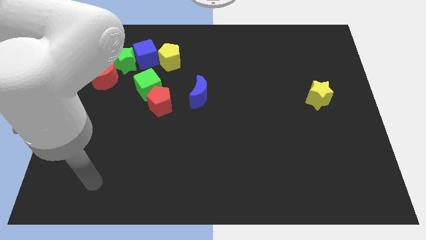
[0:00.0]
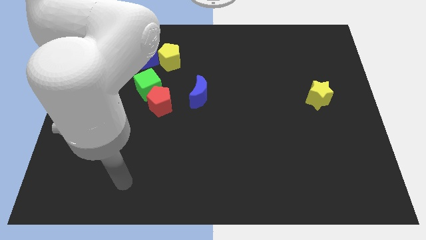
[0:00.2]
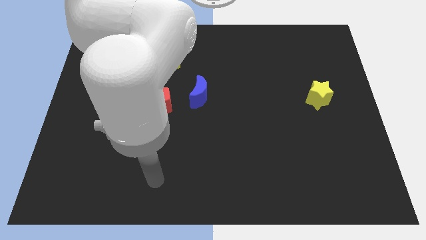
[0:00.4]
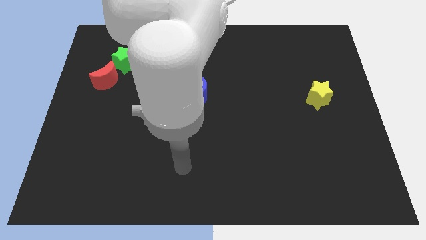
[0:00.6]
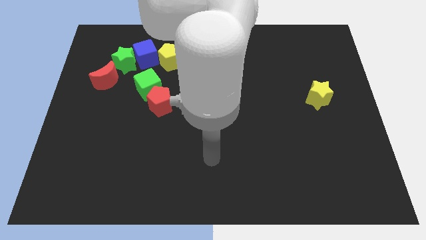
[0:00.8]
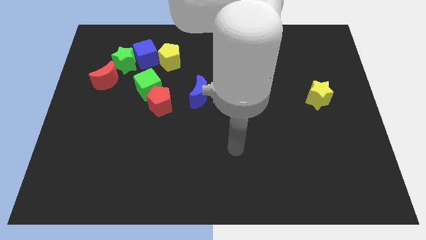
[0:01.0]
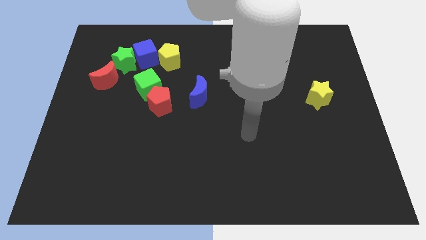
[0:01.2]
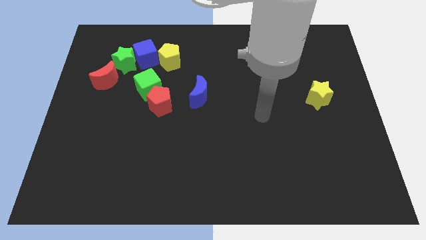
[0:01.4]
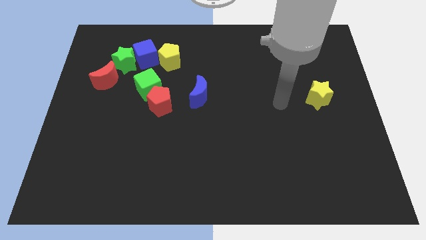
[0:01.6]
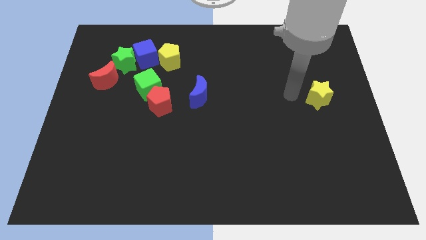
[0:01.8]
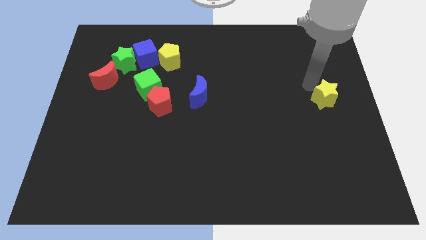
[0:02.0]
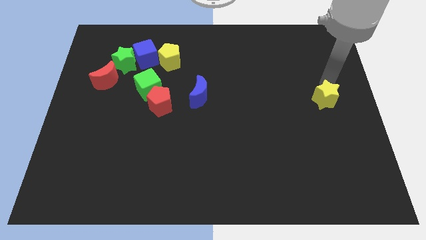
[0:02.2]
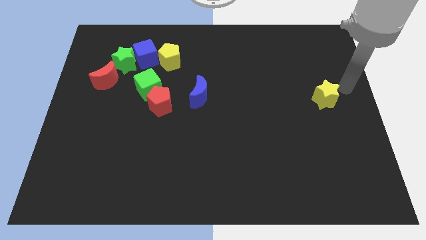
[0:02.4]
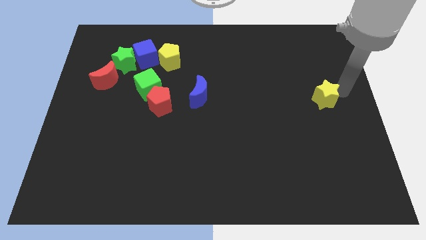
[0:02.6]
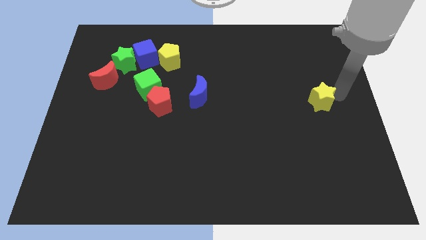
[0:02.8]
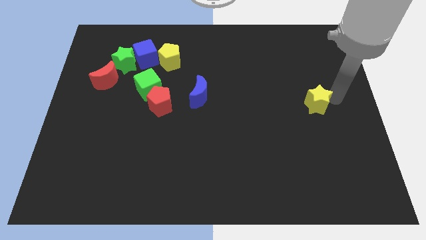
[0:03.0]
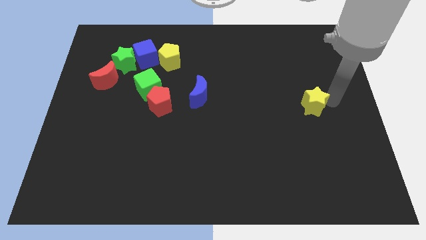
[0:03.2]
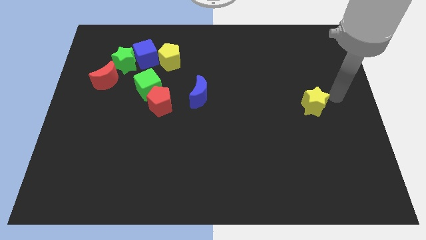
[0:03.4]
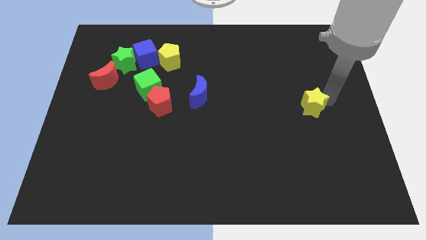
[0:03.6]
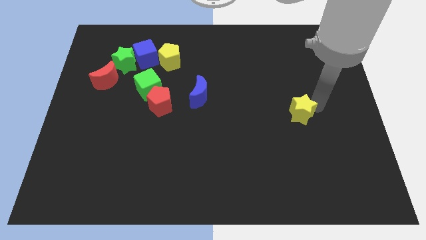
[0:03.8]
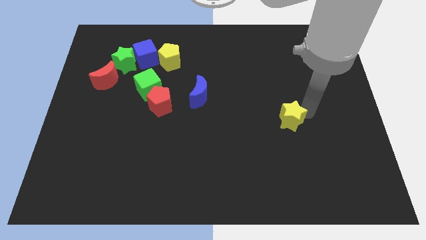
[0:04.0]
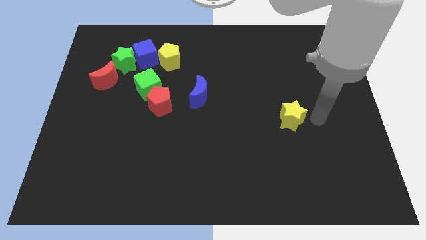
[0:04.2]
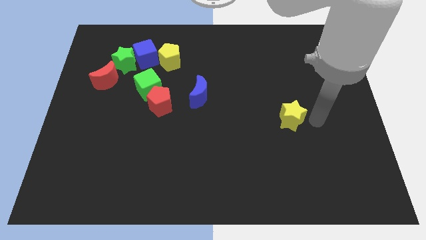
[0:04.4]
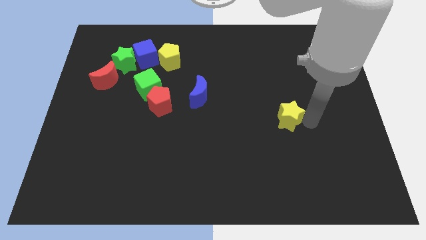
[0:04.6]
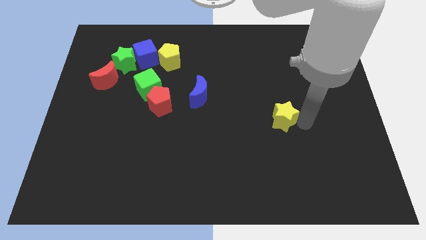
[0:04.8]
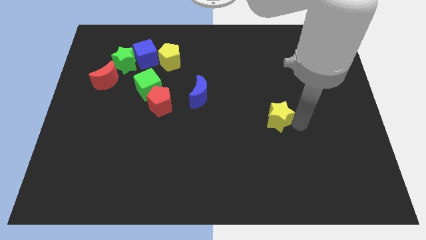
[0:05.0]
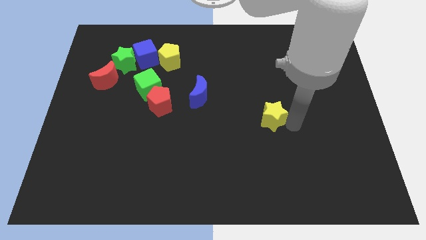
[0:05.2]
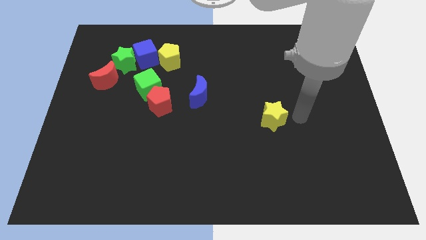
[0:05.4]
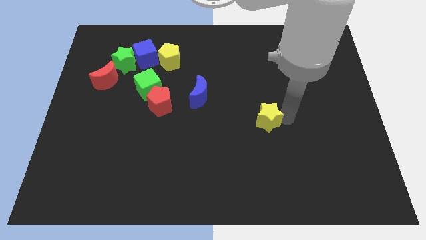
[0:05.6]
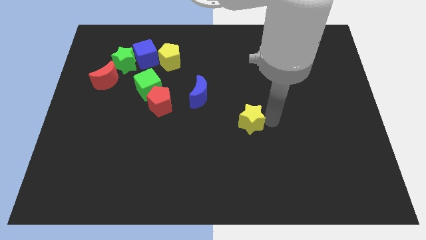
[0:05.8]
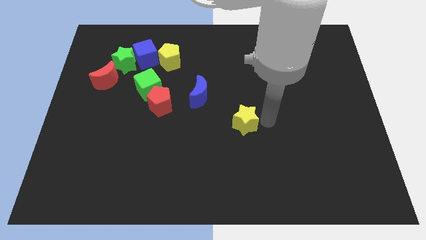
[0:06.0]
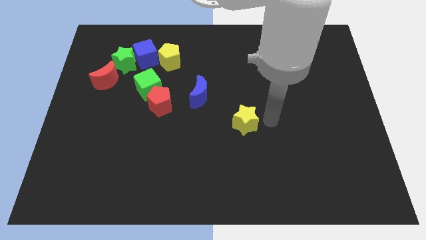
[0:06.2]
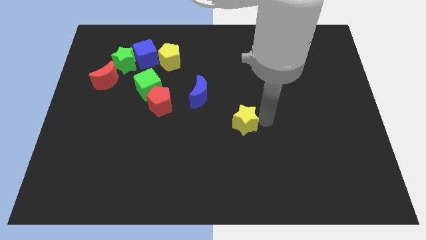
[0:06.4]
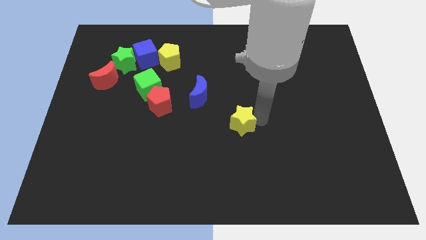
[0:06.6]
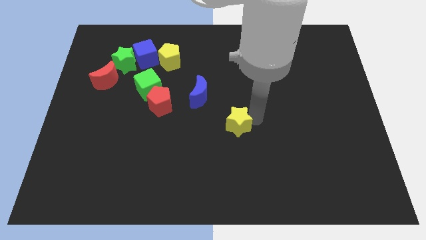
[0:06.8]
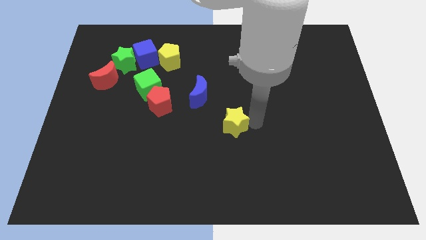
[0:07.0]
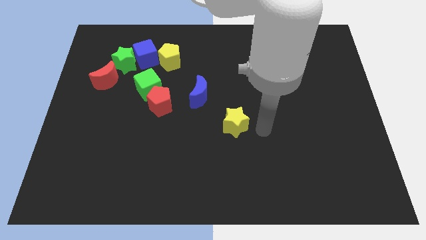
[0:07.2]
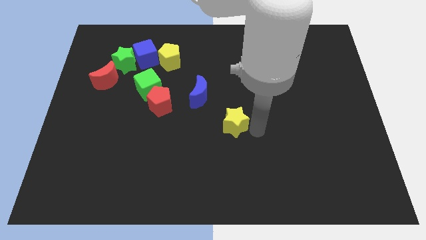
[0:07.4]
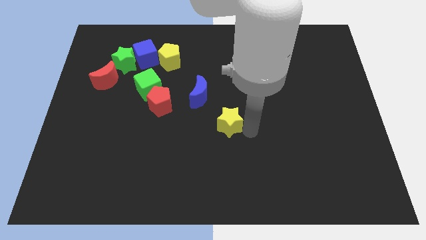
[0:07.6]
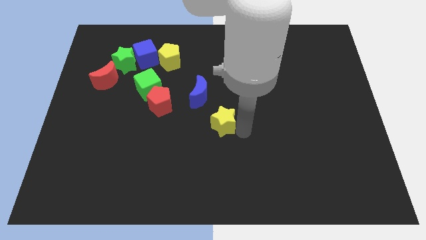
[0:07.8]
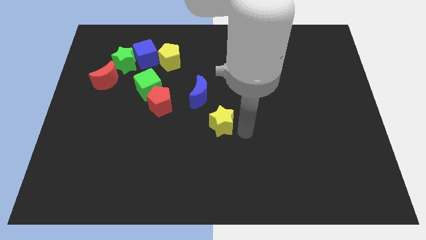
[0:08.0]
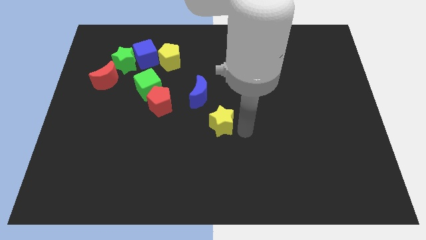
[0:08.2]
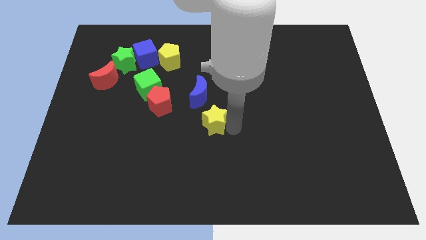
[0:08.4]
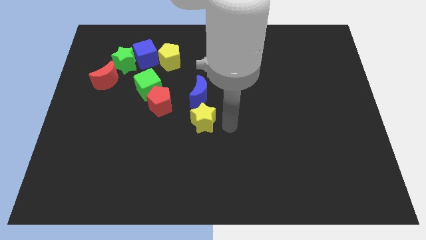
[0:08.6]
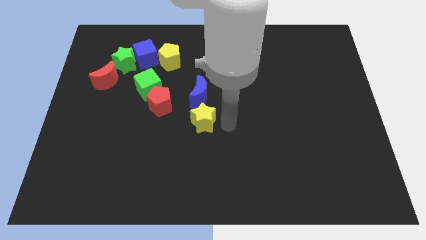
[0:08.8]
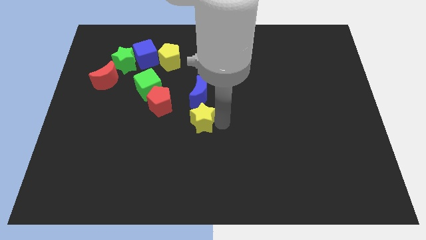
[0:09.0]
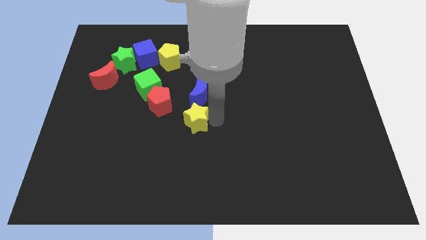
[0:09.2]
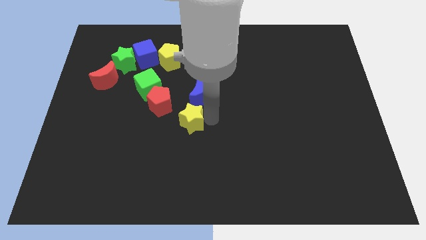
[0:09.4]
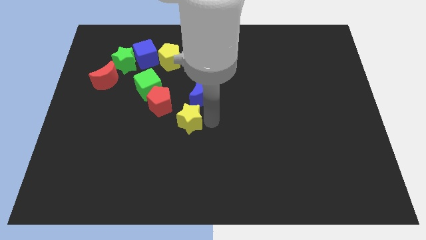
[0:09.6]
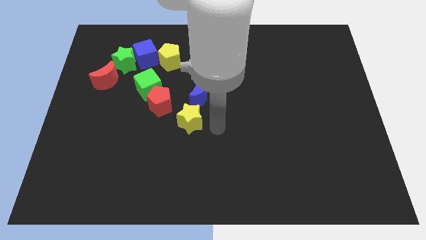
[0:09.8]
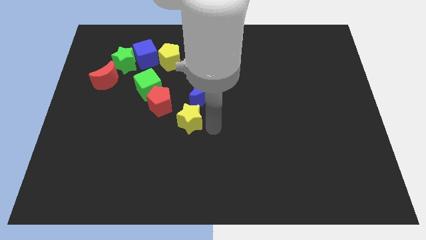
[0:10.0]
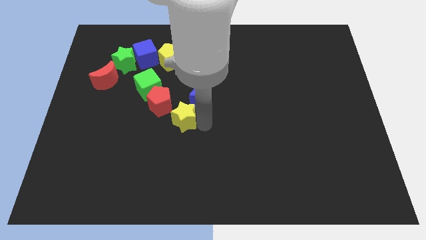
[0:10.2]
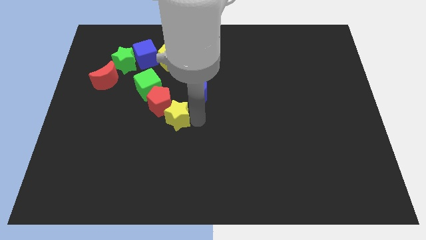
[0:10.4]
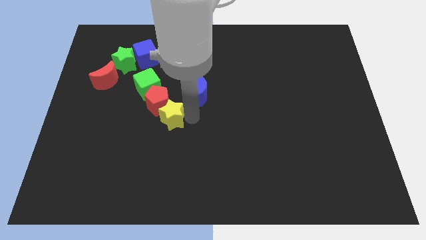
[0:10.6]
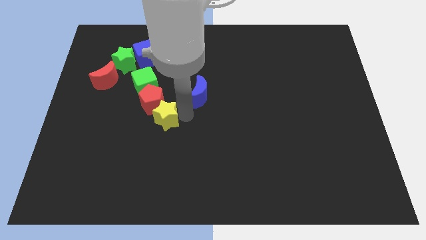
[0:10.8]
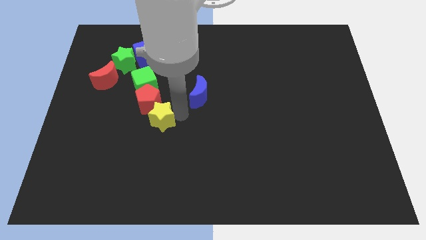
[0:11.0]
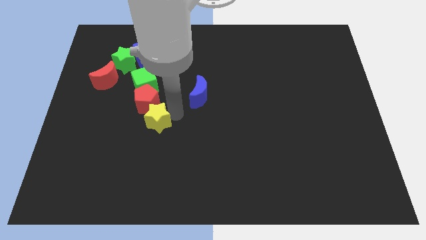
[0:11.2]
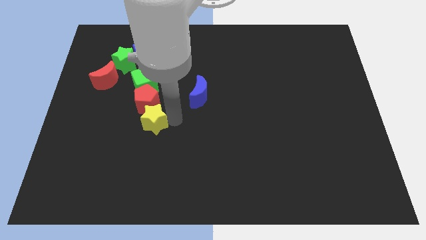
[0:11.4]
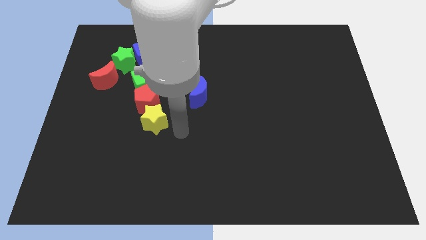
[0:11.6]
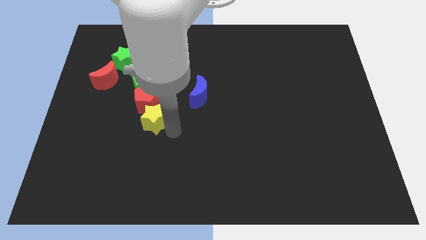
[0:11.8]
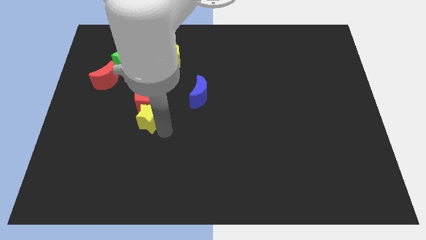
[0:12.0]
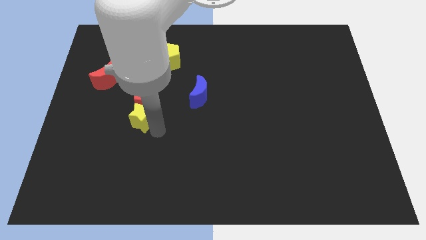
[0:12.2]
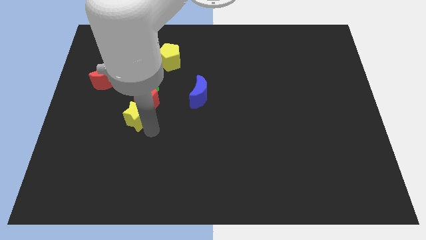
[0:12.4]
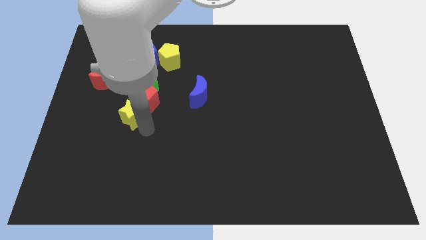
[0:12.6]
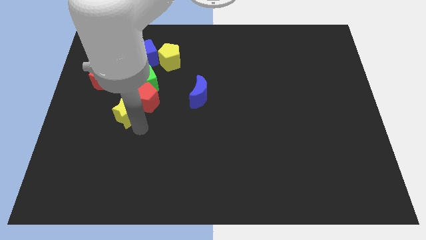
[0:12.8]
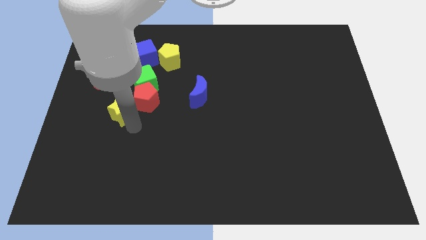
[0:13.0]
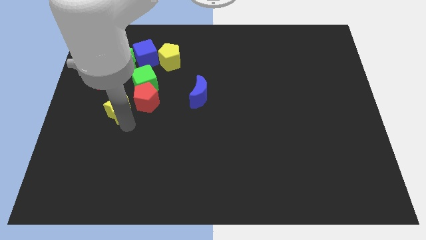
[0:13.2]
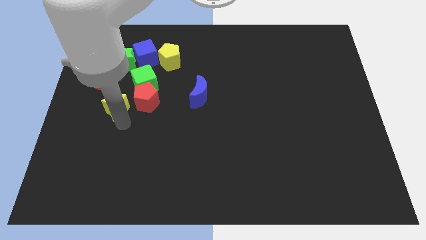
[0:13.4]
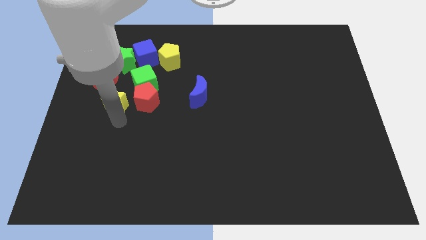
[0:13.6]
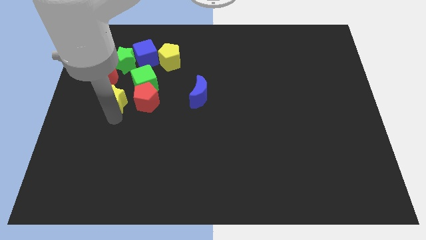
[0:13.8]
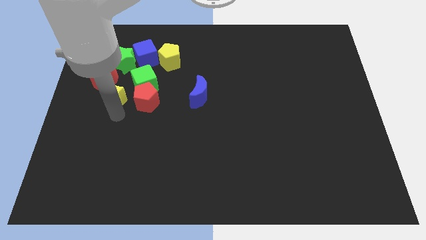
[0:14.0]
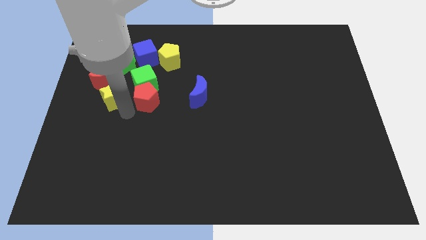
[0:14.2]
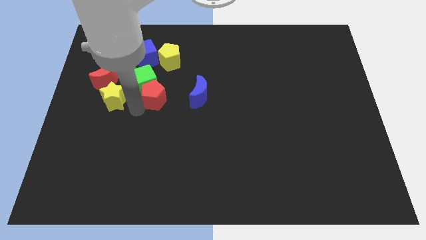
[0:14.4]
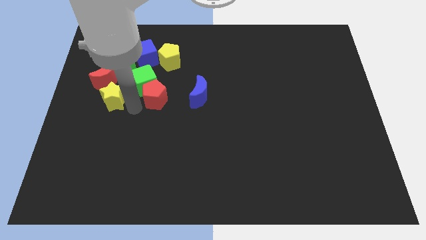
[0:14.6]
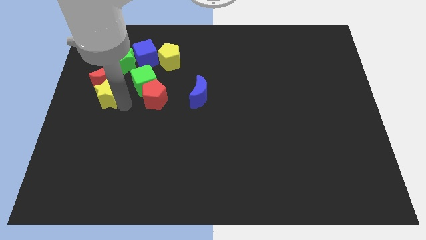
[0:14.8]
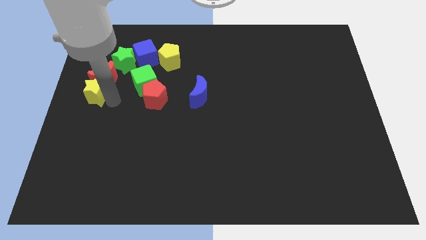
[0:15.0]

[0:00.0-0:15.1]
slide the yellow star to the bottom left side of the green star
